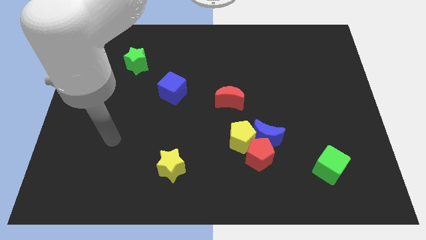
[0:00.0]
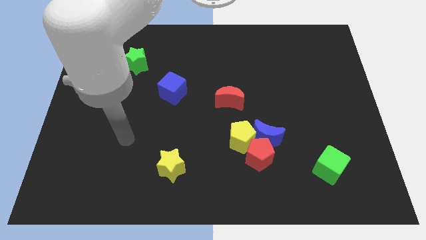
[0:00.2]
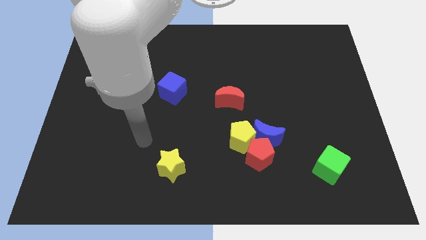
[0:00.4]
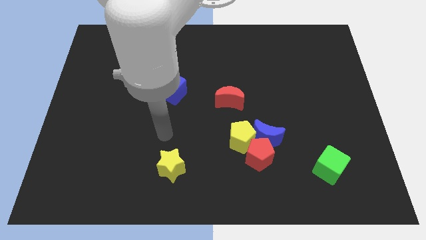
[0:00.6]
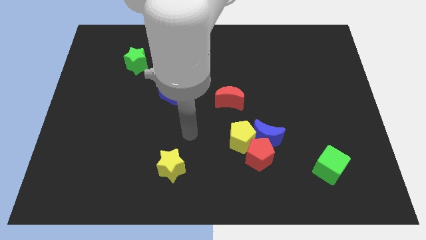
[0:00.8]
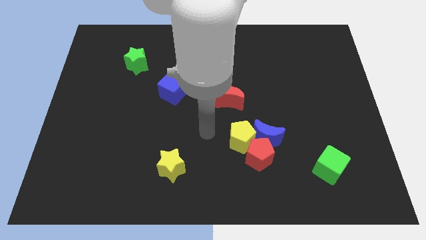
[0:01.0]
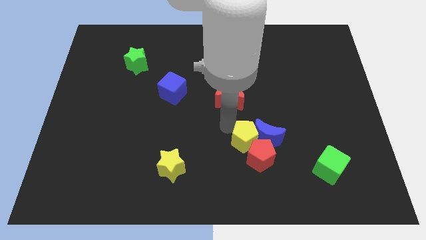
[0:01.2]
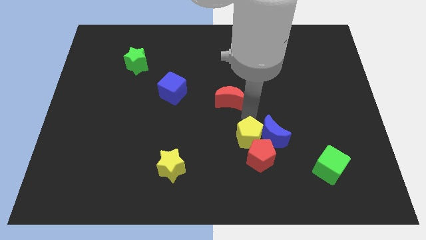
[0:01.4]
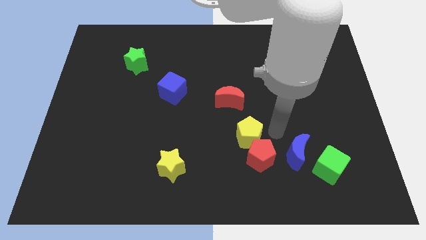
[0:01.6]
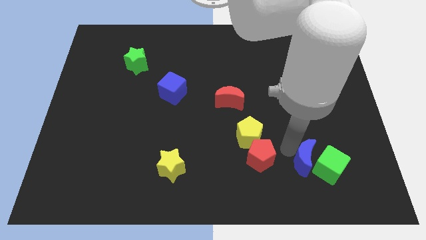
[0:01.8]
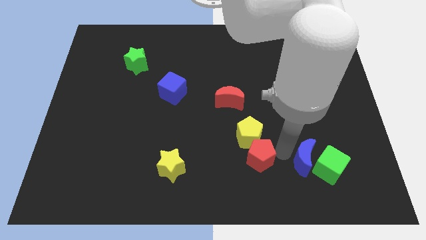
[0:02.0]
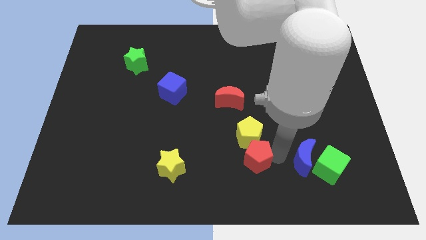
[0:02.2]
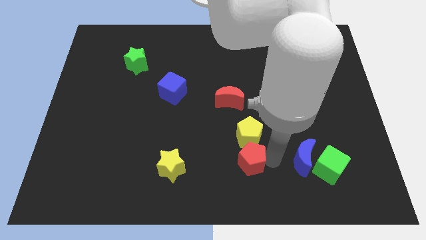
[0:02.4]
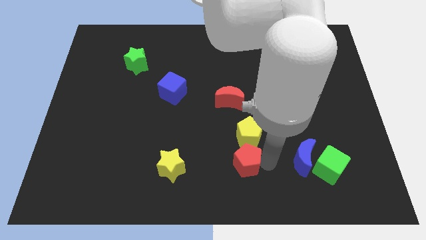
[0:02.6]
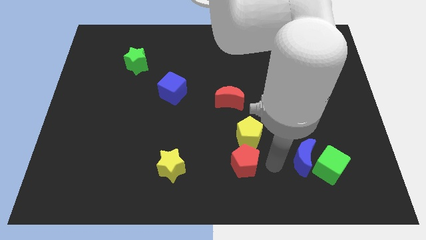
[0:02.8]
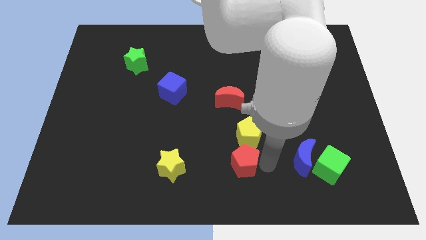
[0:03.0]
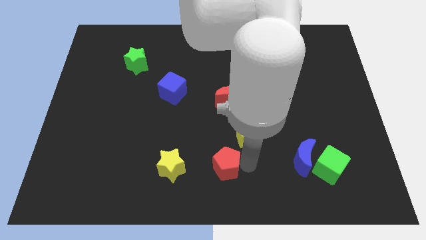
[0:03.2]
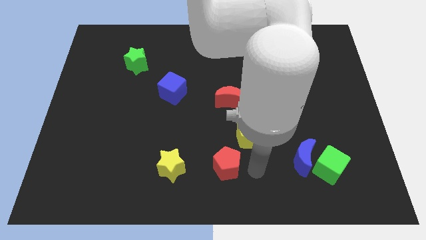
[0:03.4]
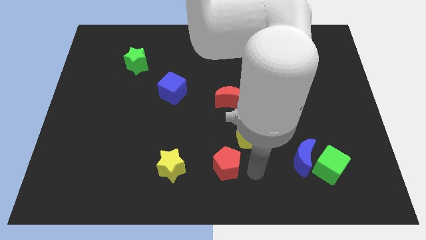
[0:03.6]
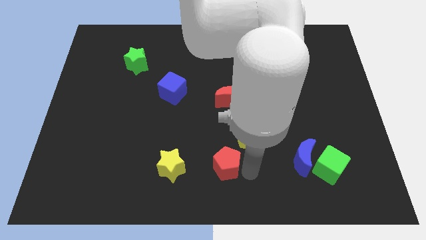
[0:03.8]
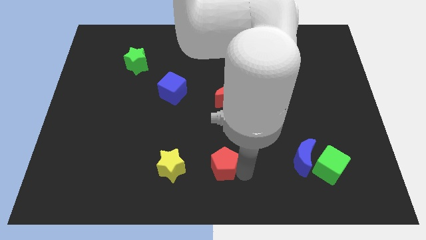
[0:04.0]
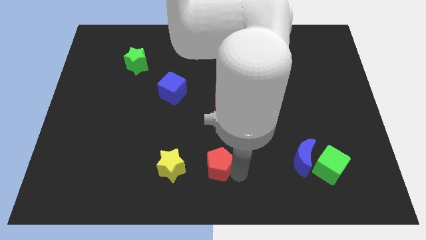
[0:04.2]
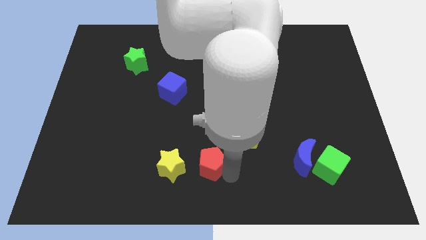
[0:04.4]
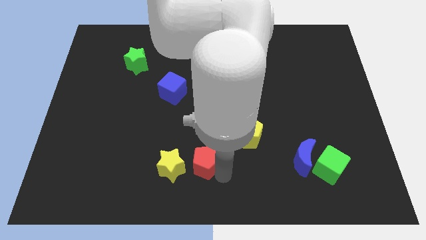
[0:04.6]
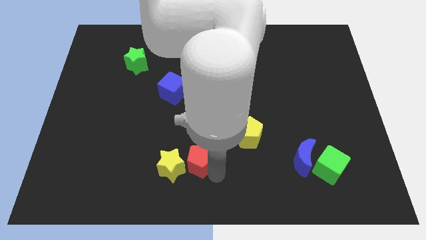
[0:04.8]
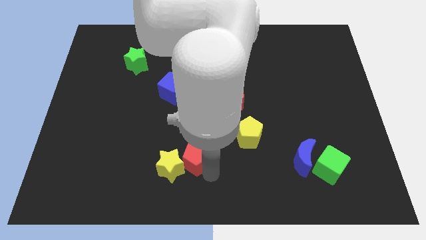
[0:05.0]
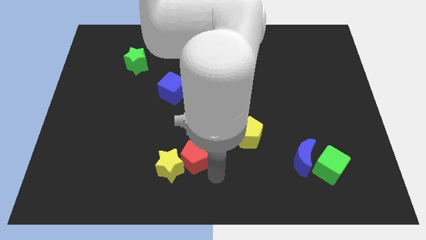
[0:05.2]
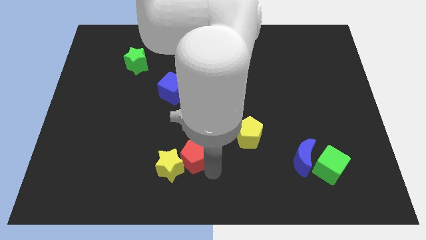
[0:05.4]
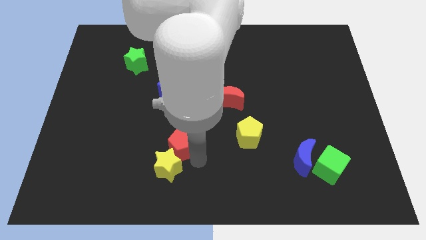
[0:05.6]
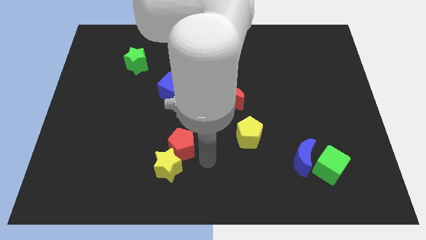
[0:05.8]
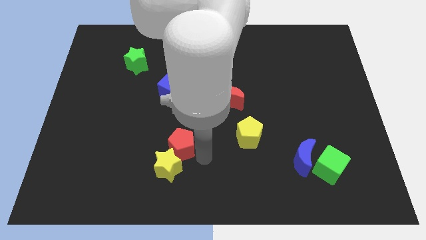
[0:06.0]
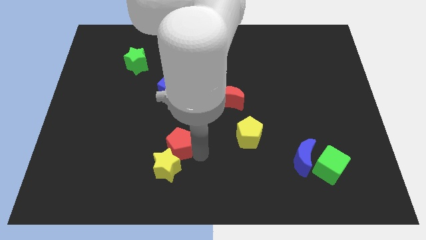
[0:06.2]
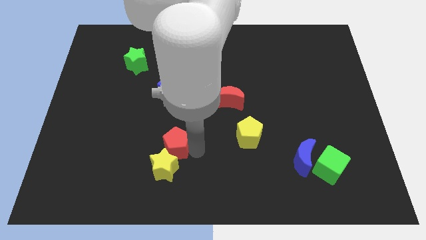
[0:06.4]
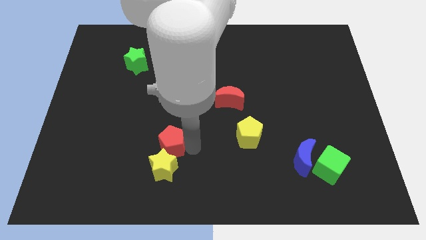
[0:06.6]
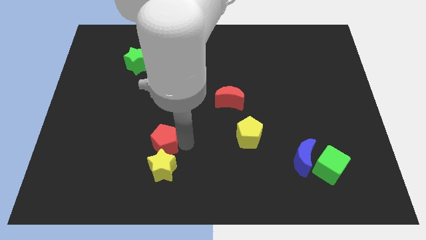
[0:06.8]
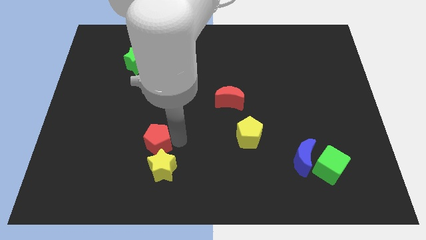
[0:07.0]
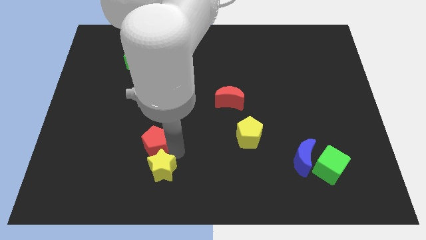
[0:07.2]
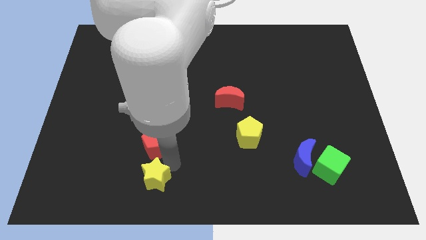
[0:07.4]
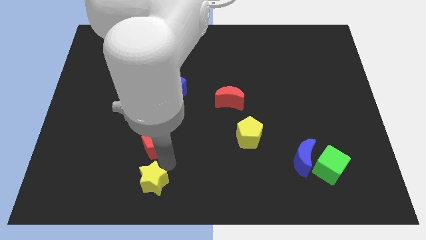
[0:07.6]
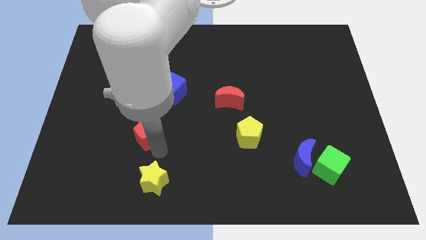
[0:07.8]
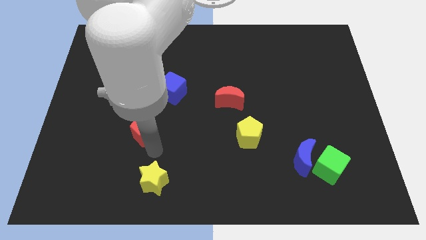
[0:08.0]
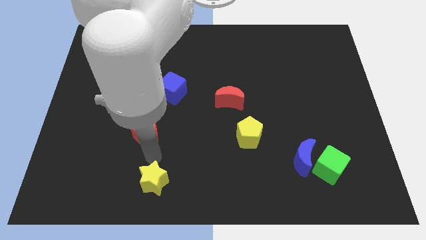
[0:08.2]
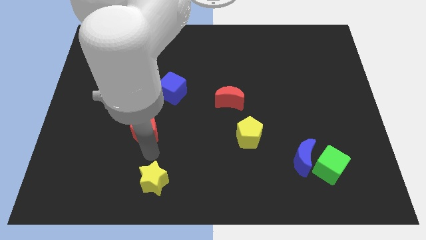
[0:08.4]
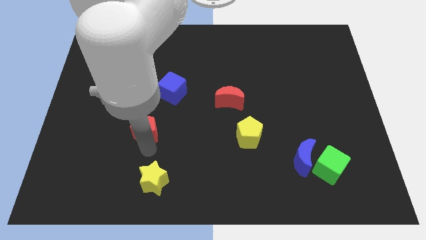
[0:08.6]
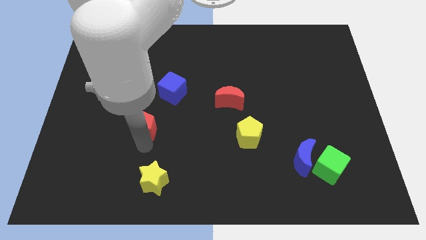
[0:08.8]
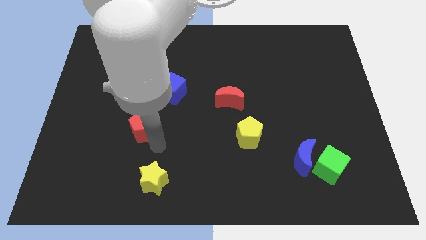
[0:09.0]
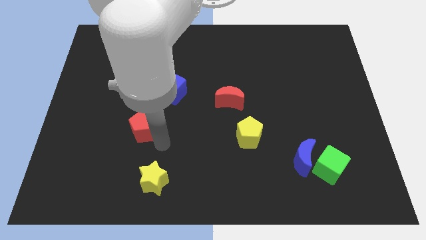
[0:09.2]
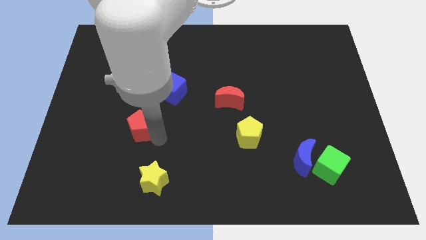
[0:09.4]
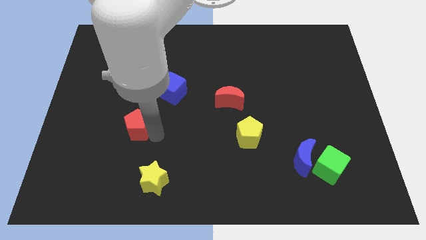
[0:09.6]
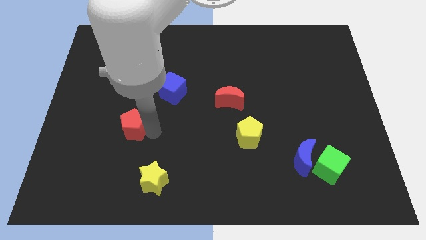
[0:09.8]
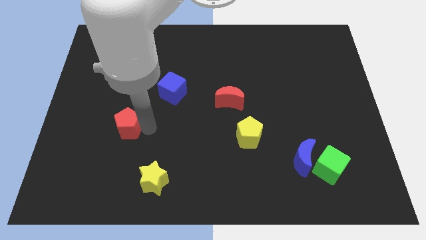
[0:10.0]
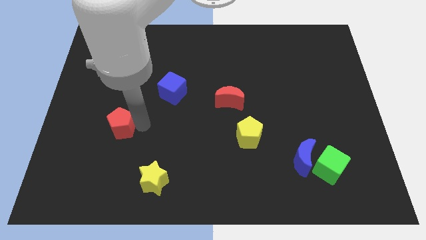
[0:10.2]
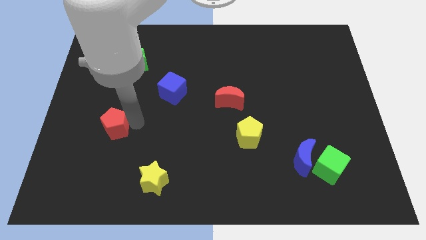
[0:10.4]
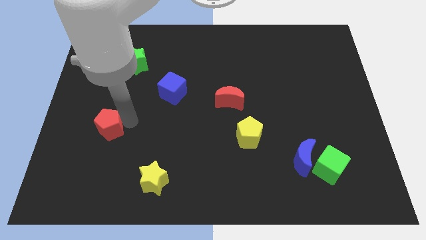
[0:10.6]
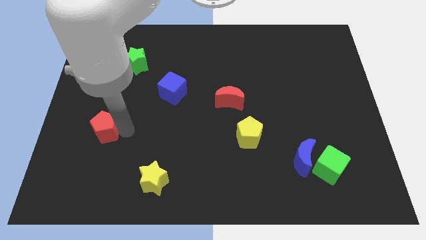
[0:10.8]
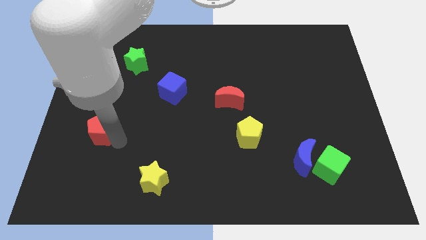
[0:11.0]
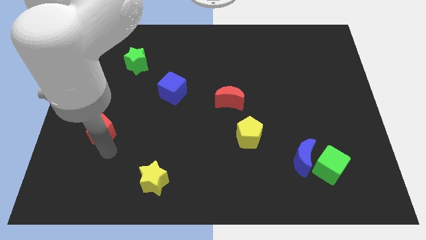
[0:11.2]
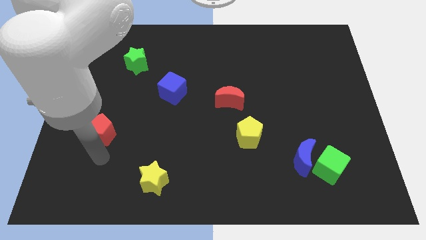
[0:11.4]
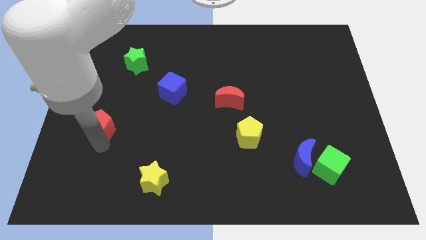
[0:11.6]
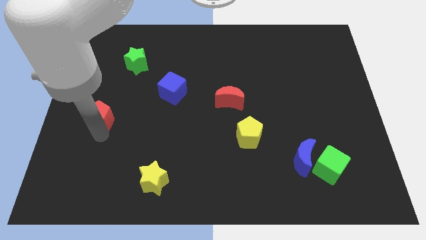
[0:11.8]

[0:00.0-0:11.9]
push the red pentagon to the left side of the board
